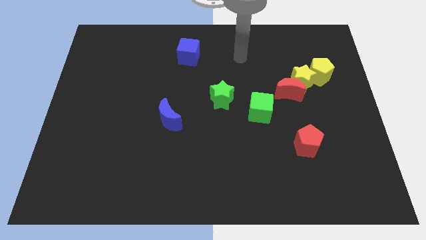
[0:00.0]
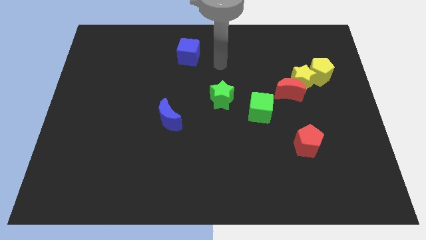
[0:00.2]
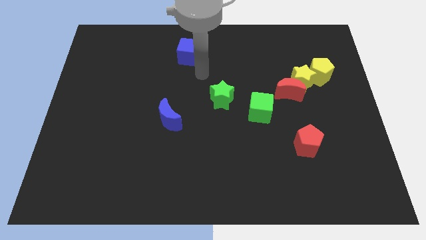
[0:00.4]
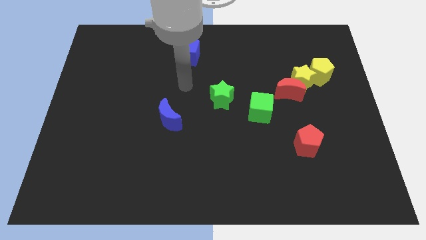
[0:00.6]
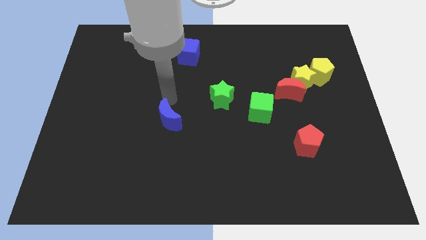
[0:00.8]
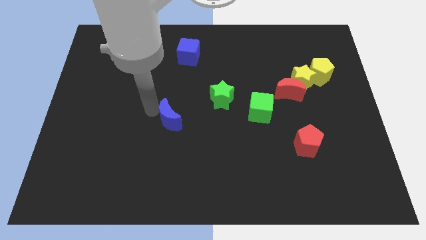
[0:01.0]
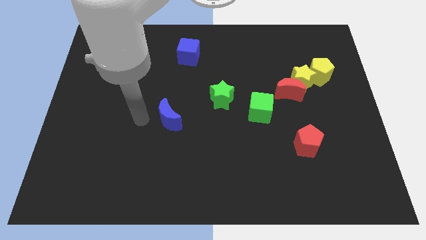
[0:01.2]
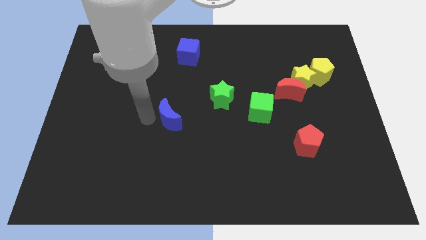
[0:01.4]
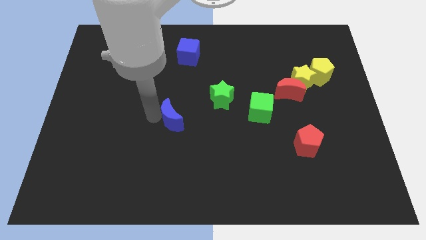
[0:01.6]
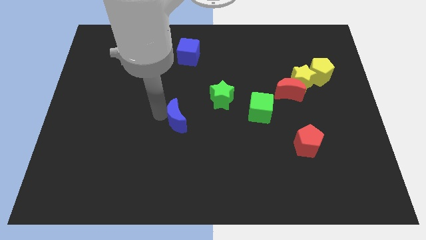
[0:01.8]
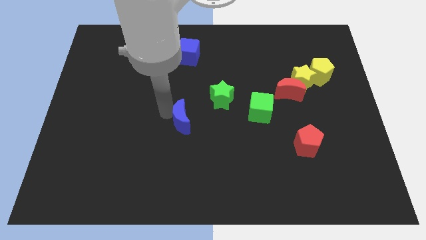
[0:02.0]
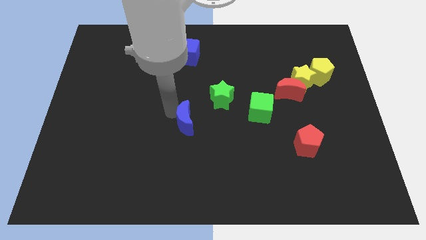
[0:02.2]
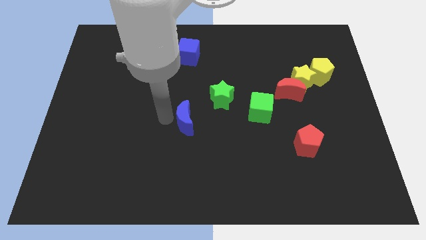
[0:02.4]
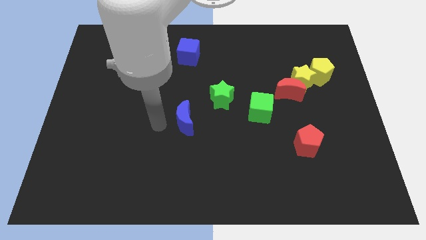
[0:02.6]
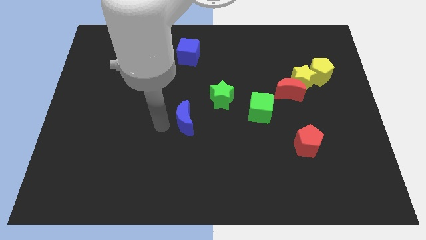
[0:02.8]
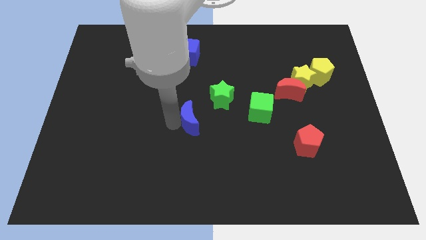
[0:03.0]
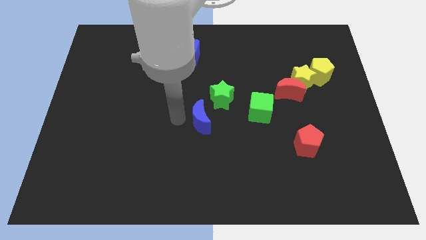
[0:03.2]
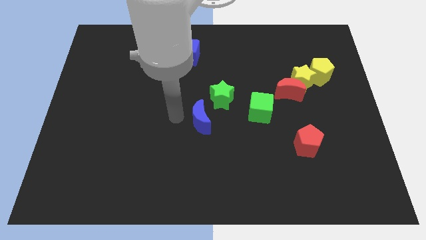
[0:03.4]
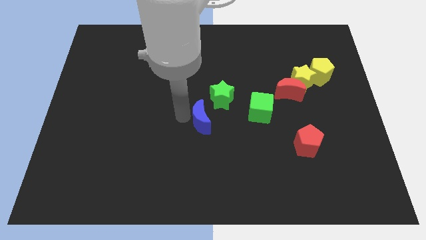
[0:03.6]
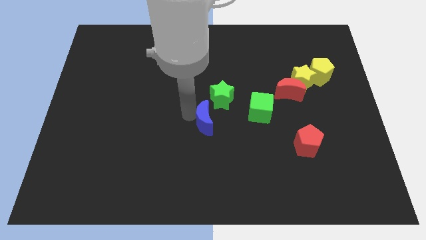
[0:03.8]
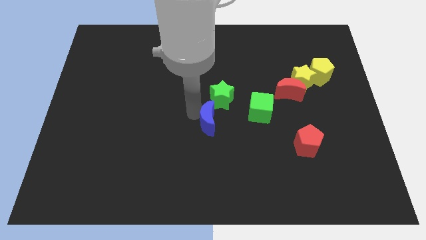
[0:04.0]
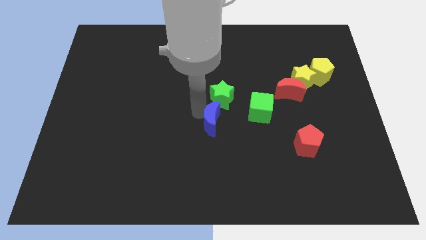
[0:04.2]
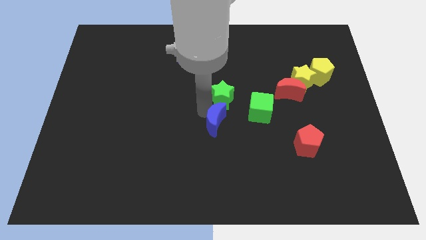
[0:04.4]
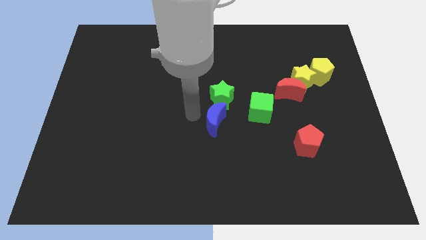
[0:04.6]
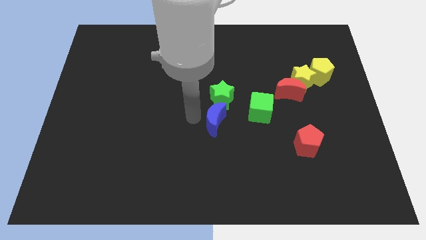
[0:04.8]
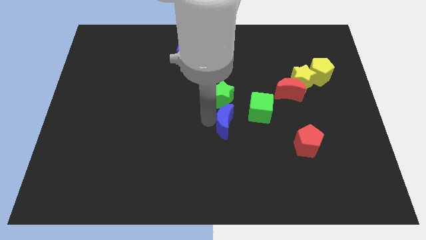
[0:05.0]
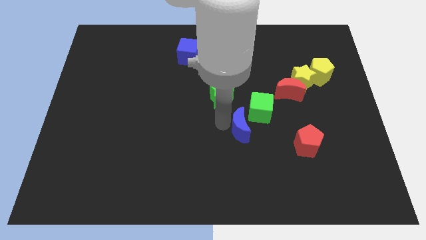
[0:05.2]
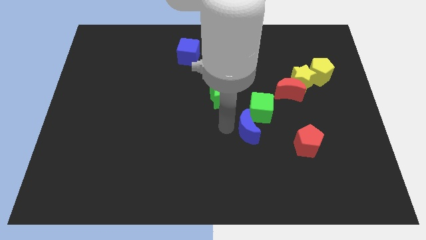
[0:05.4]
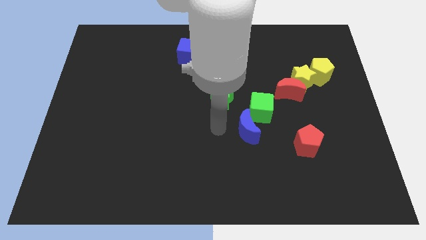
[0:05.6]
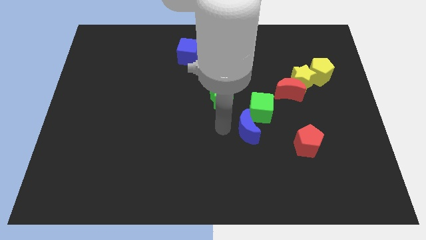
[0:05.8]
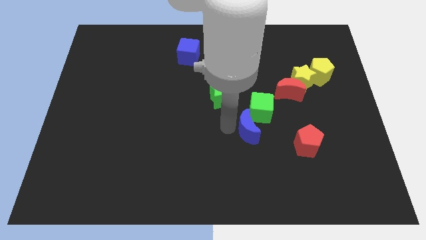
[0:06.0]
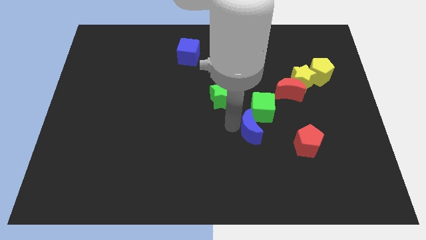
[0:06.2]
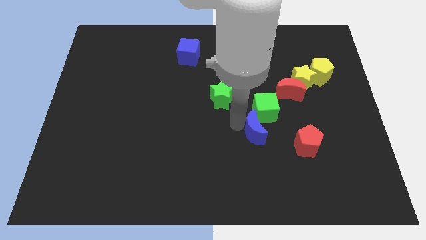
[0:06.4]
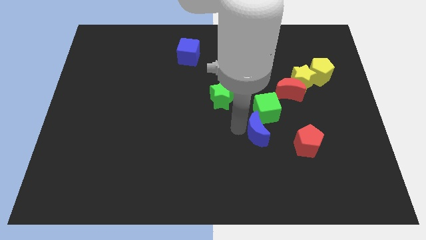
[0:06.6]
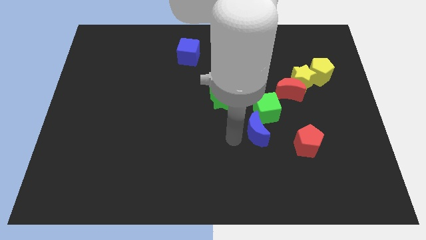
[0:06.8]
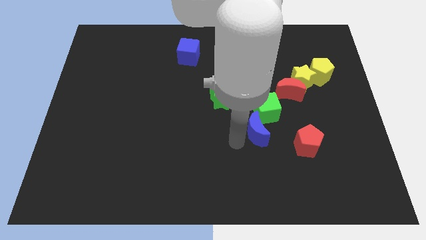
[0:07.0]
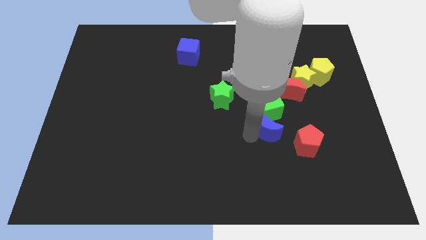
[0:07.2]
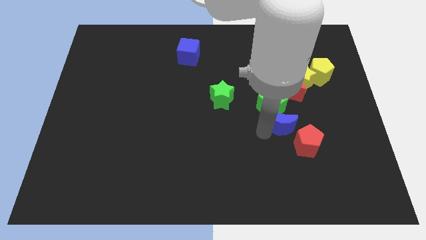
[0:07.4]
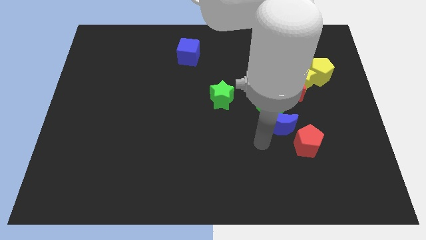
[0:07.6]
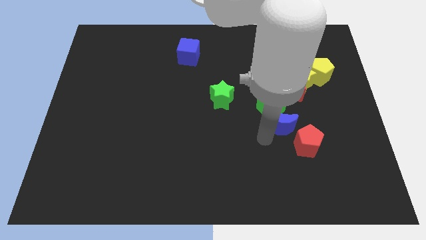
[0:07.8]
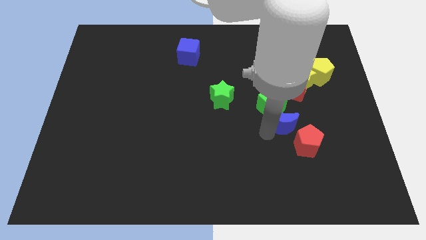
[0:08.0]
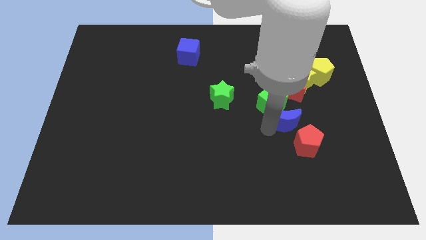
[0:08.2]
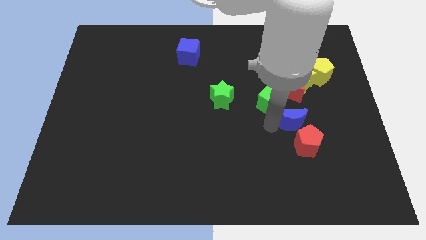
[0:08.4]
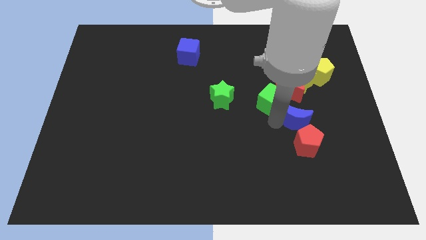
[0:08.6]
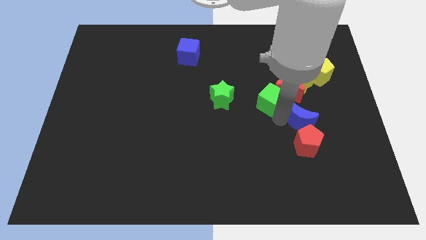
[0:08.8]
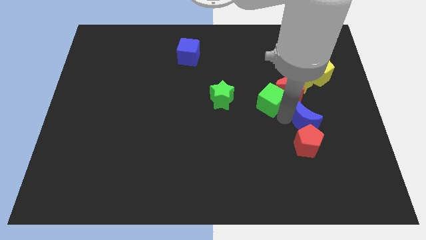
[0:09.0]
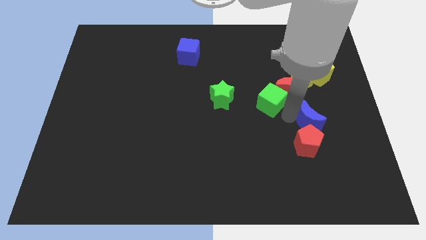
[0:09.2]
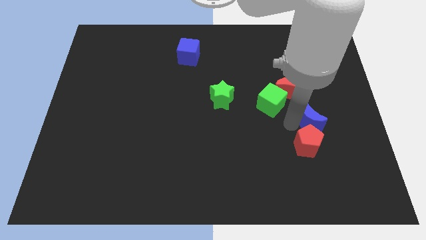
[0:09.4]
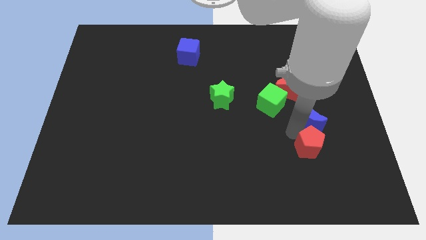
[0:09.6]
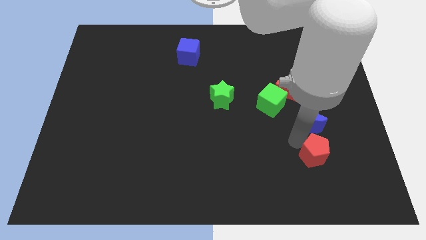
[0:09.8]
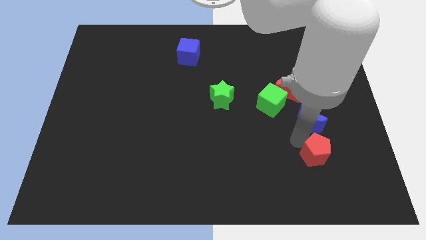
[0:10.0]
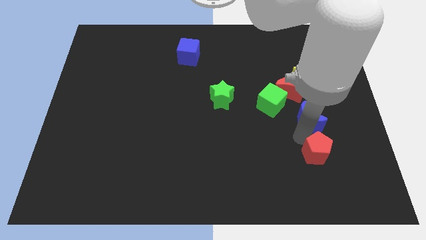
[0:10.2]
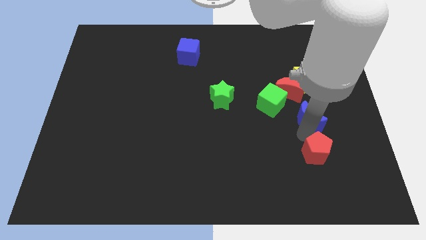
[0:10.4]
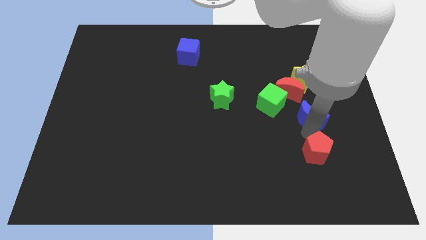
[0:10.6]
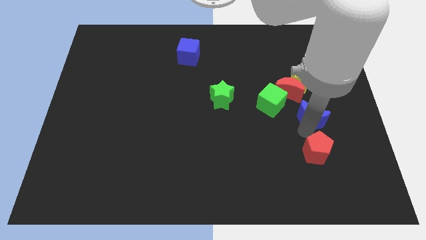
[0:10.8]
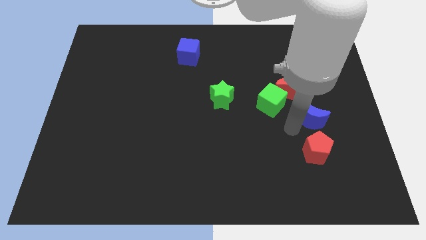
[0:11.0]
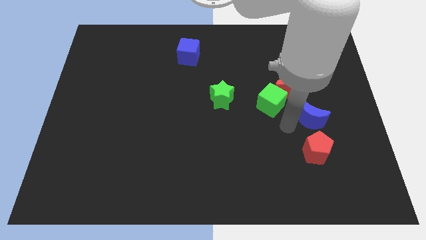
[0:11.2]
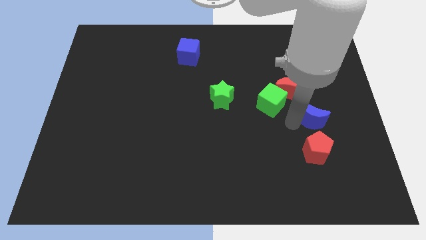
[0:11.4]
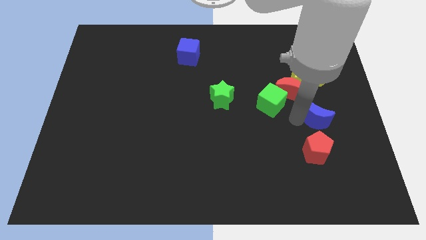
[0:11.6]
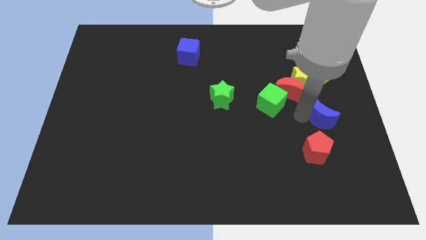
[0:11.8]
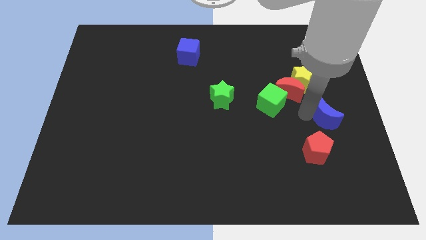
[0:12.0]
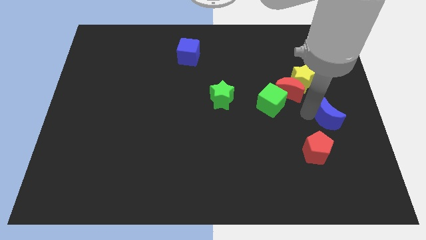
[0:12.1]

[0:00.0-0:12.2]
move the blue moon to the center right
